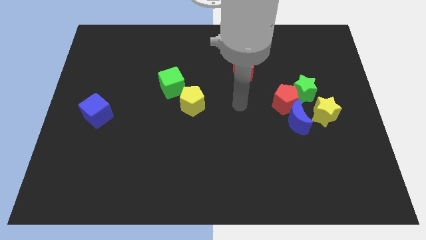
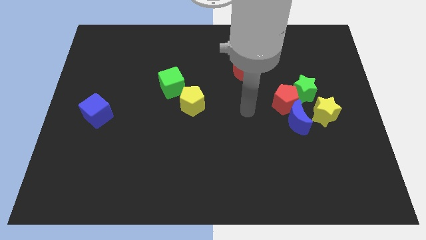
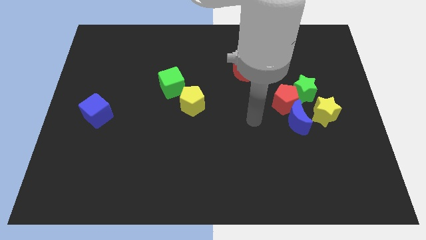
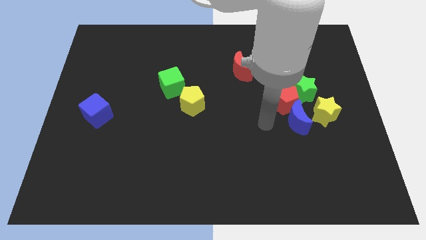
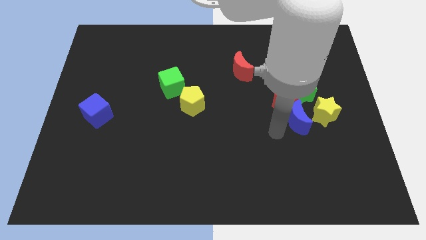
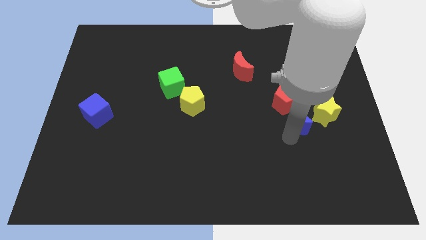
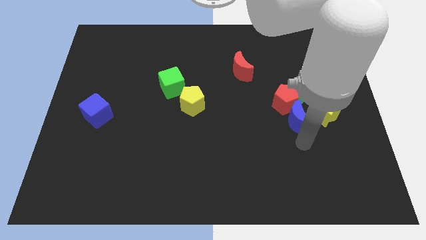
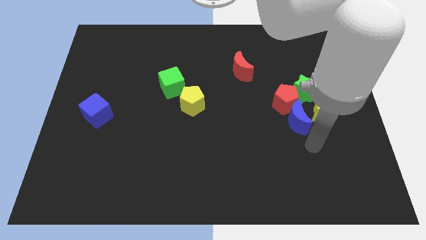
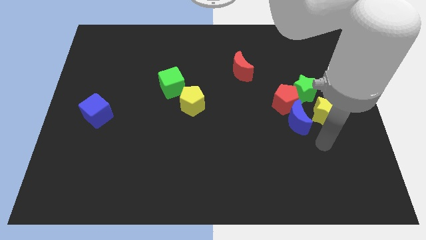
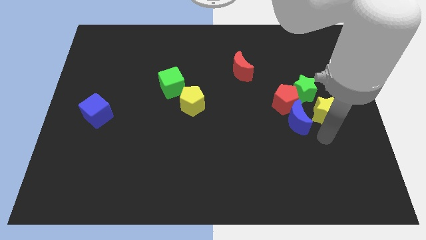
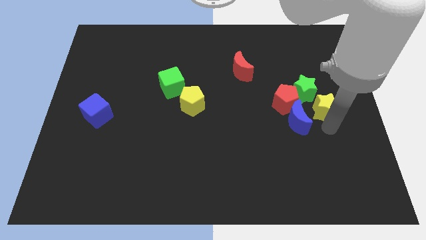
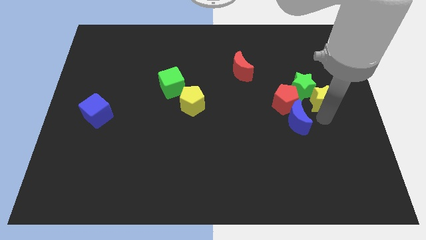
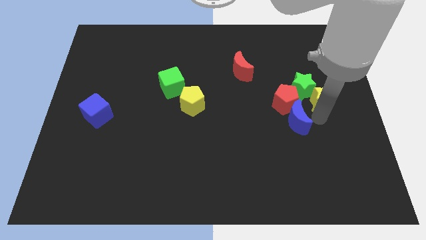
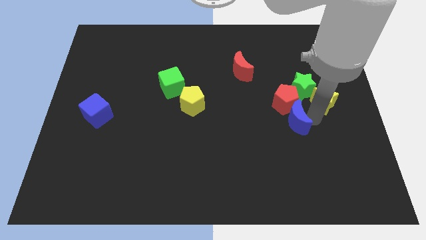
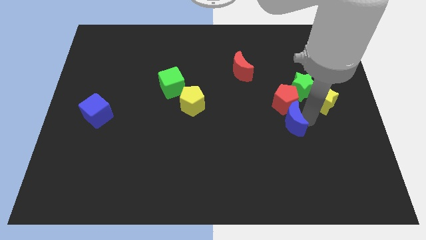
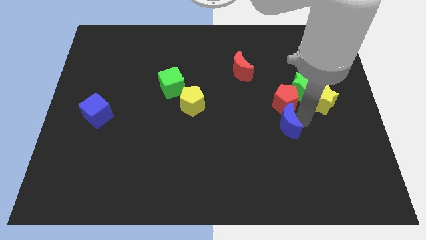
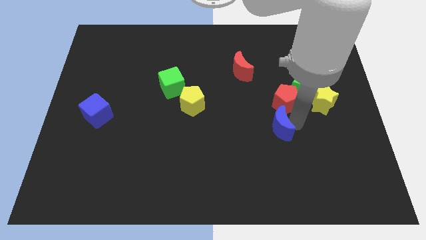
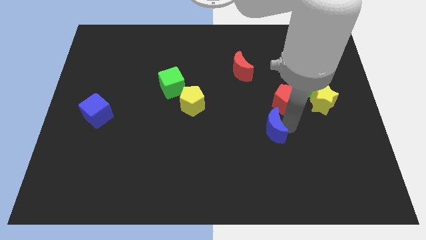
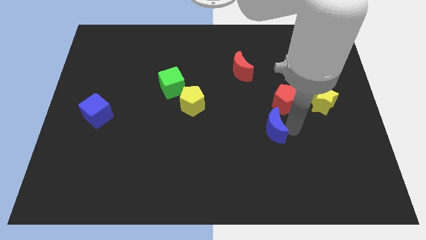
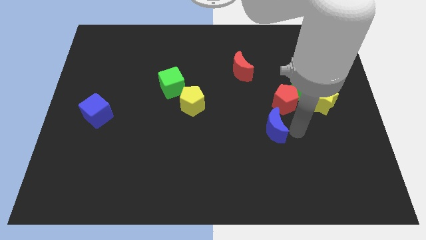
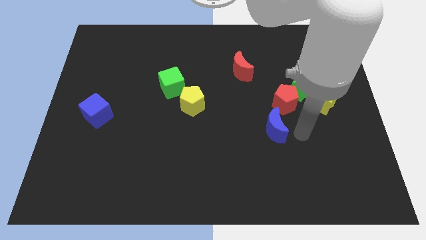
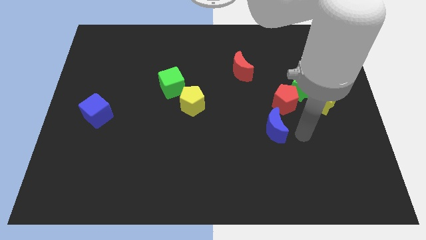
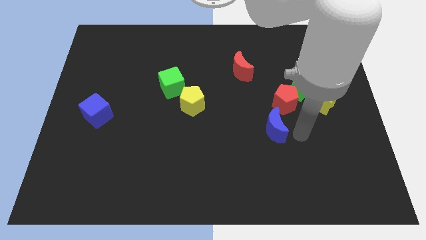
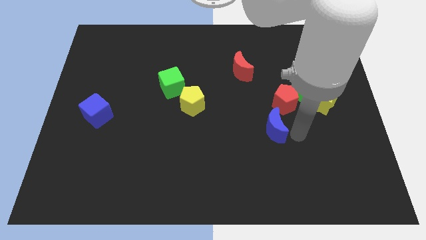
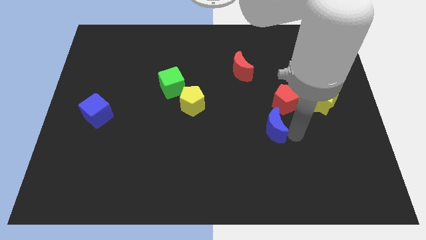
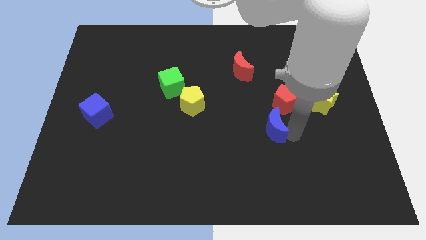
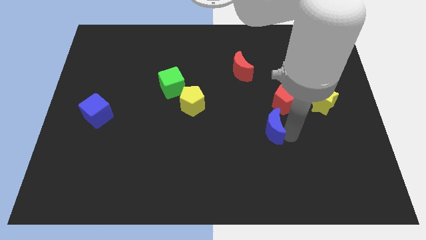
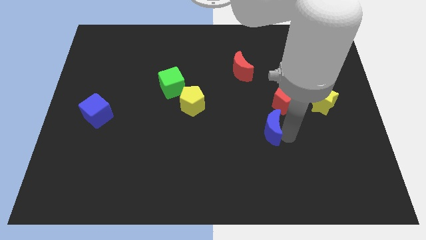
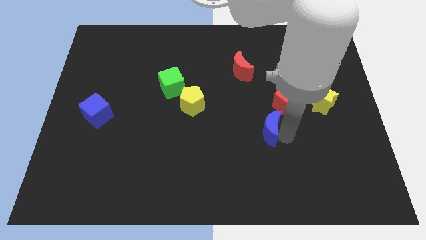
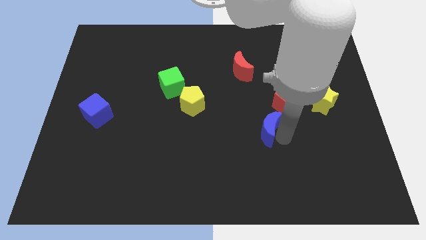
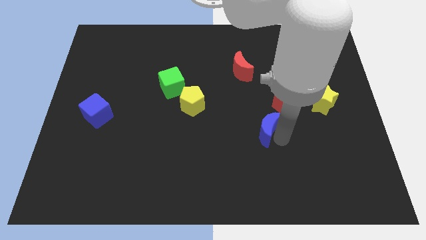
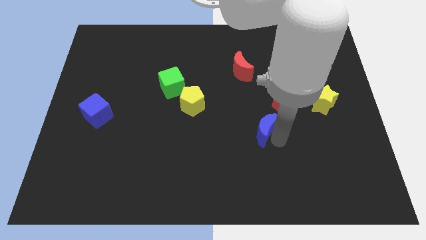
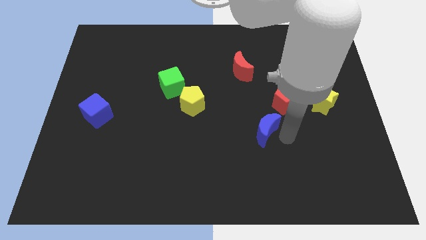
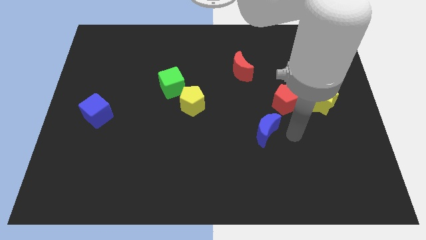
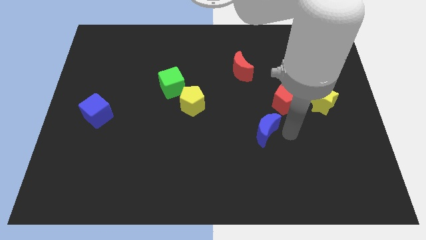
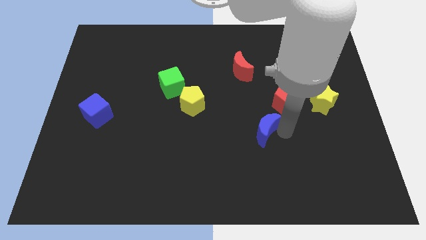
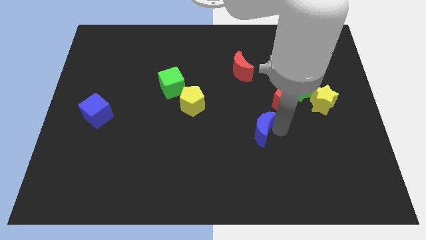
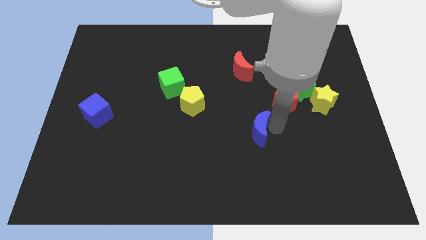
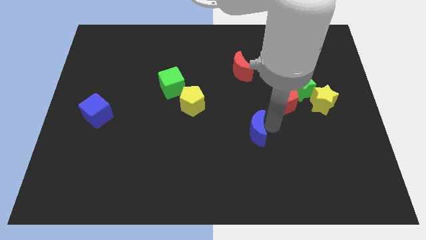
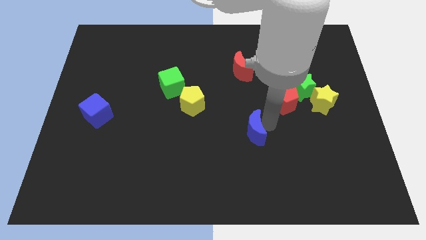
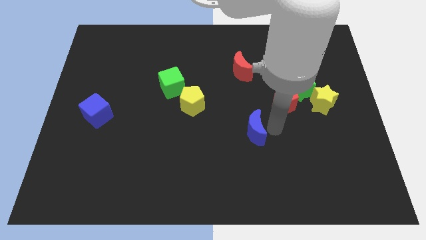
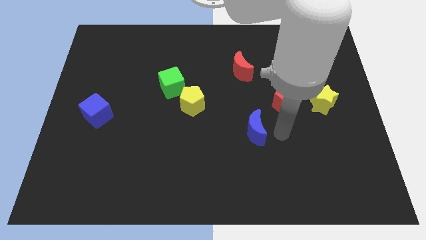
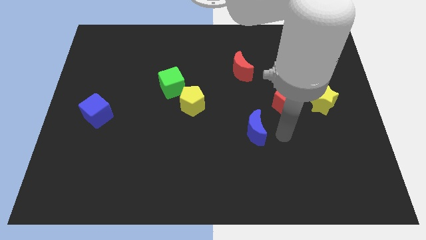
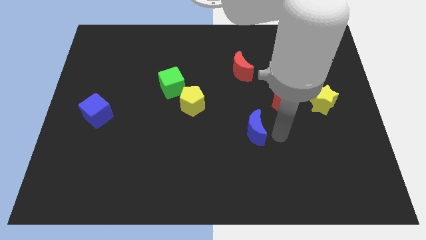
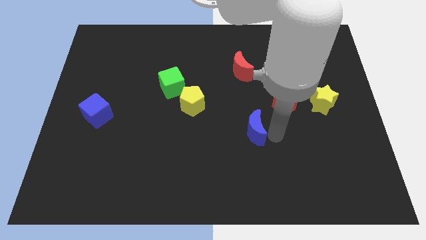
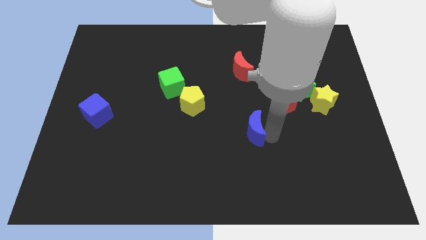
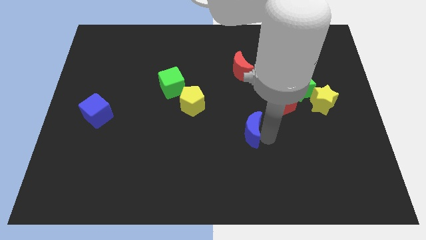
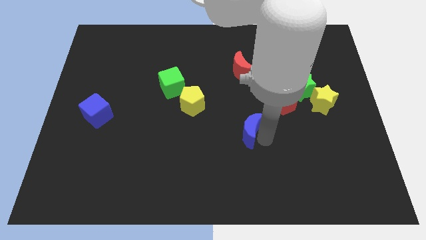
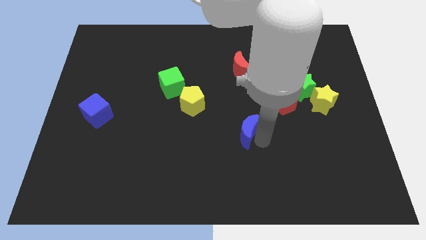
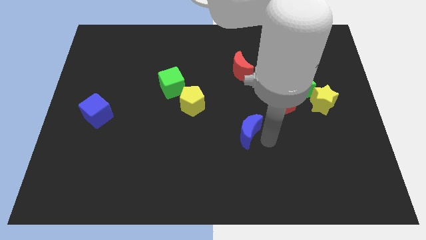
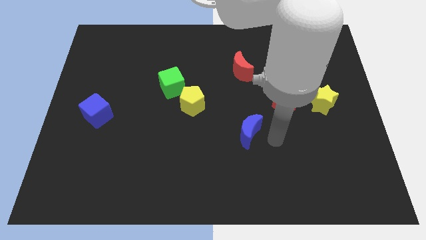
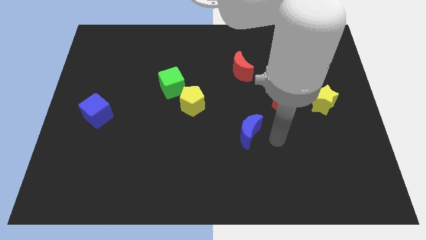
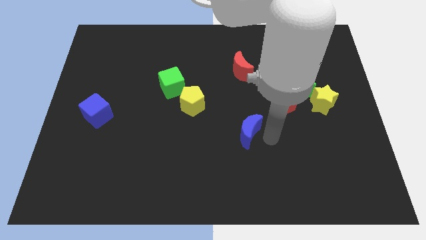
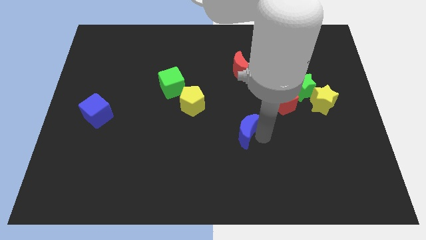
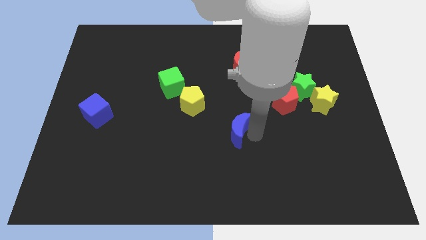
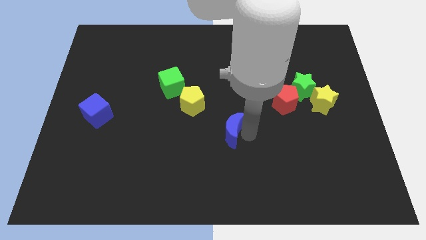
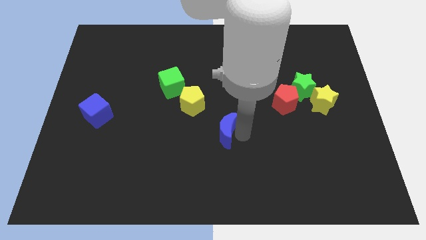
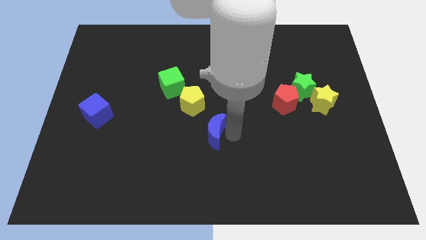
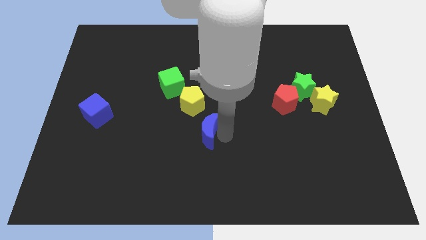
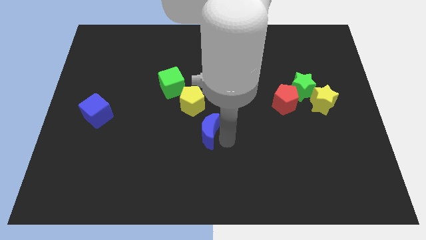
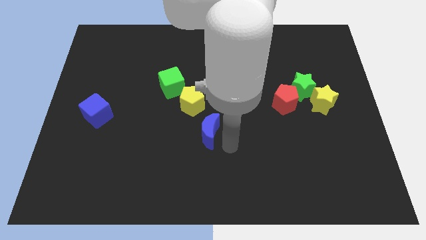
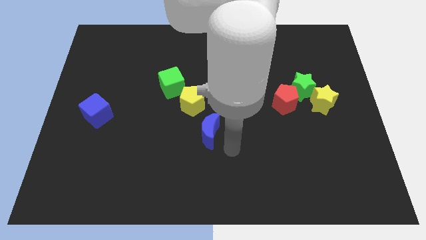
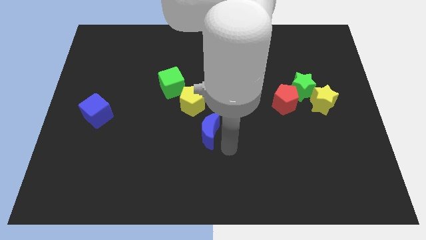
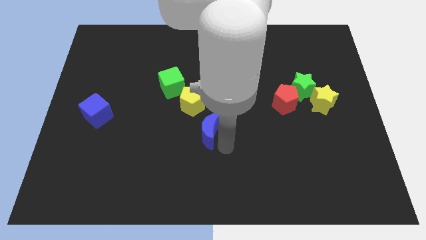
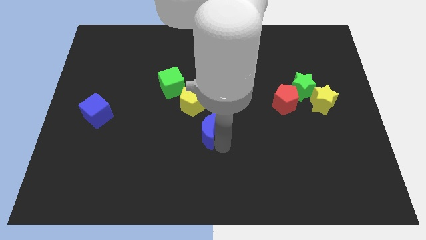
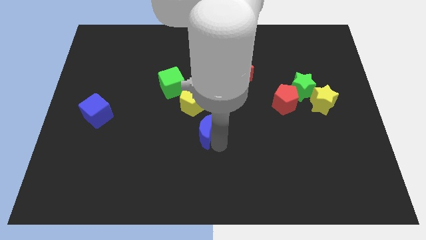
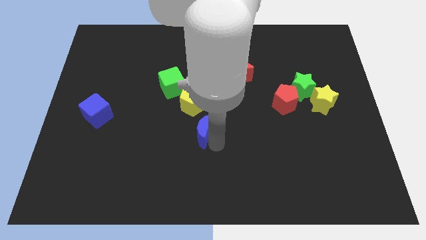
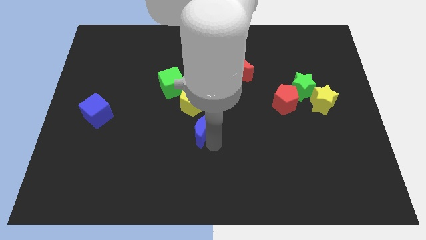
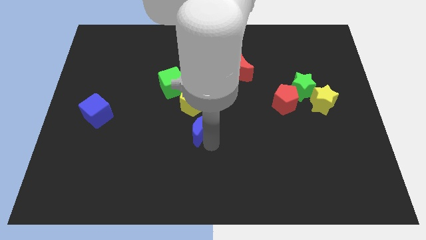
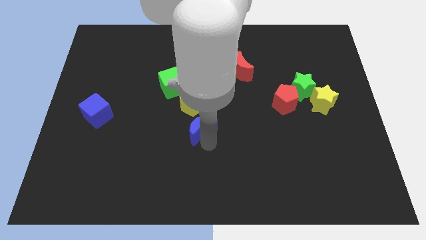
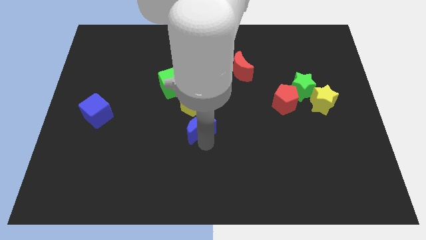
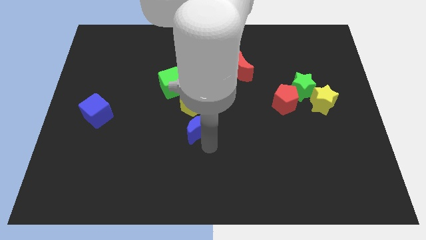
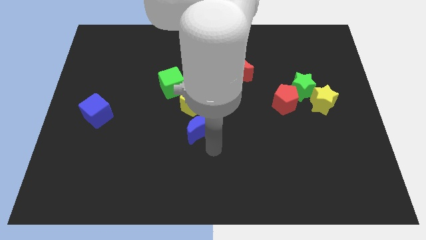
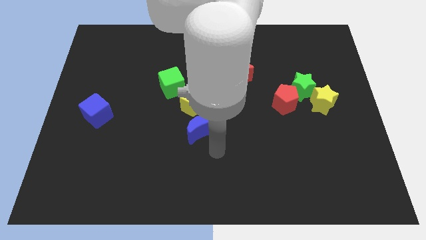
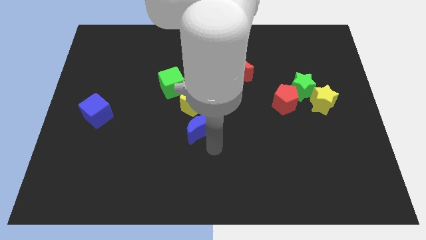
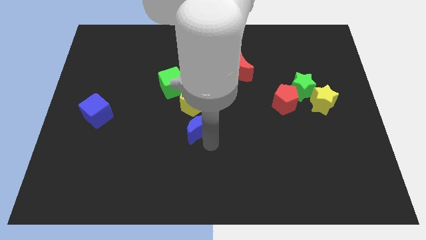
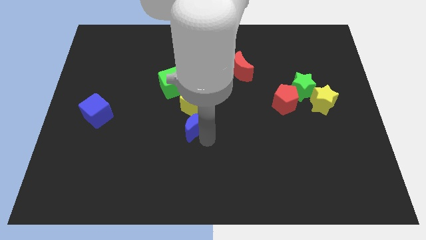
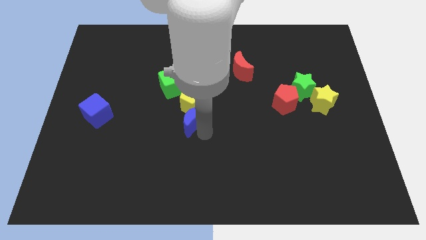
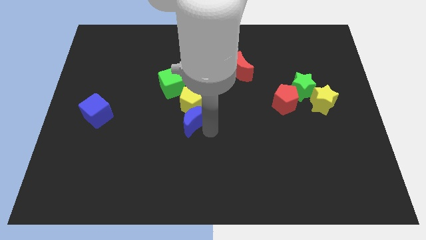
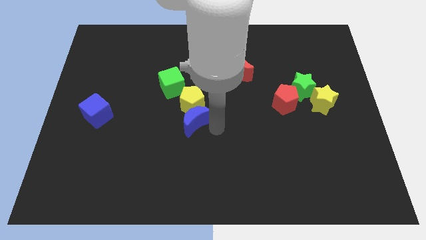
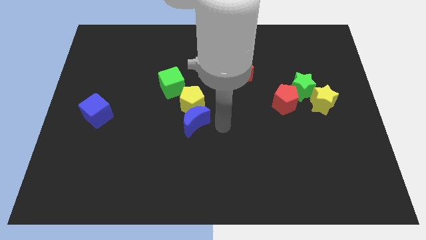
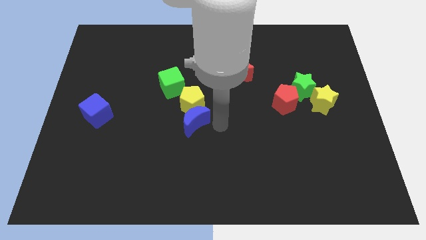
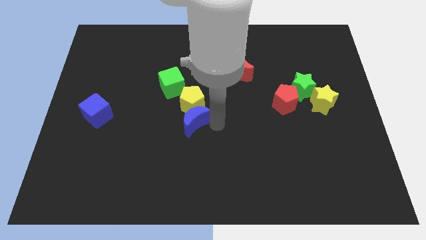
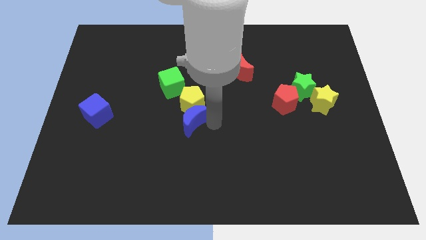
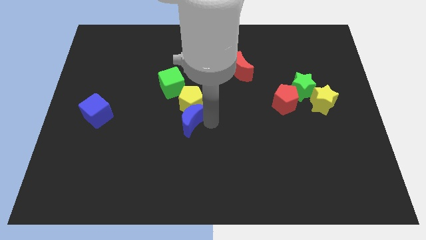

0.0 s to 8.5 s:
move the blue moon below the green cube
